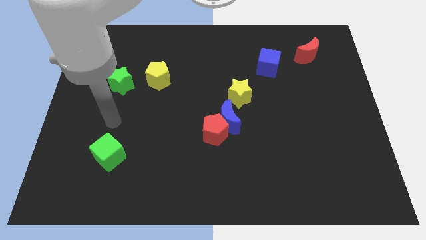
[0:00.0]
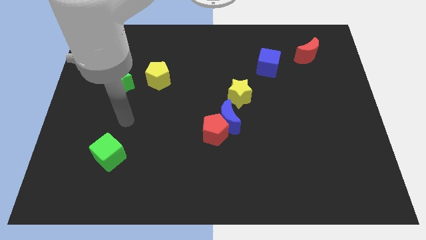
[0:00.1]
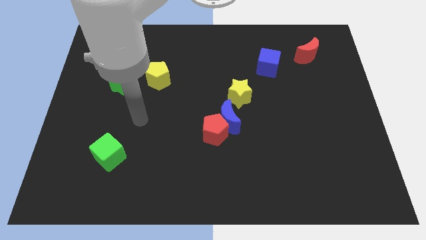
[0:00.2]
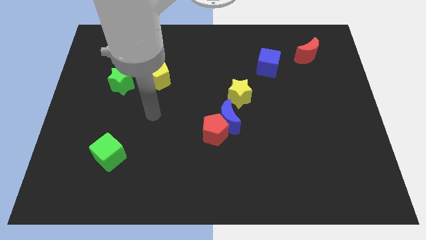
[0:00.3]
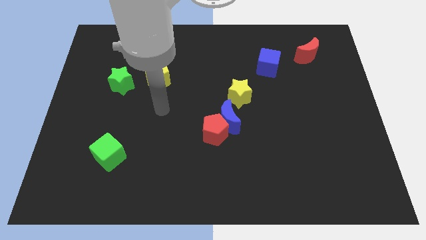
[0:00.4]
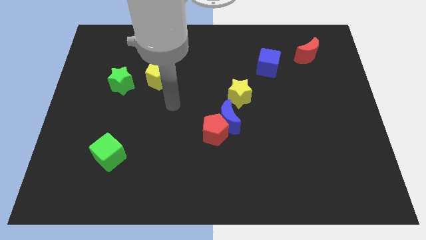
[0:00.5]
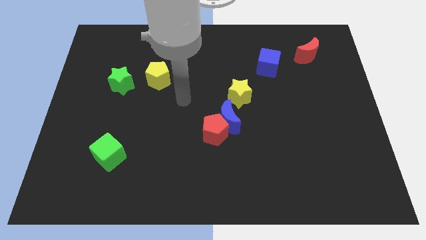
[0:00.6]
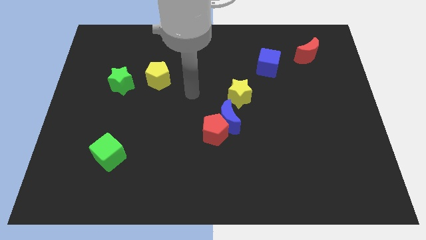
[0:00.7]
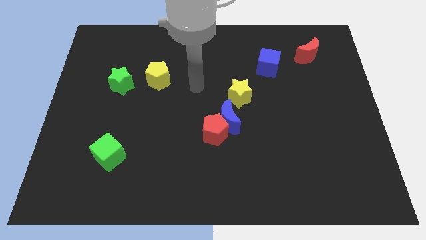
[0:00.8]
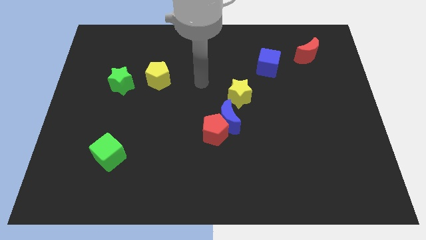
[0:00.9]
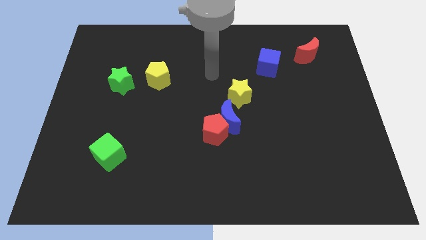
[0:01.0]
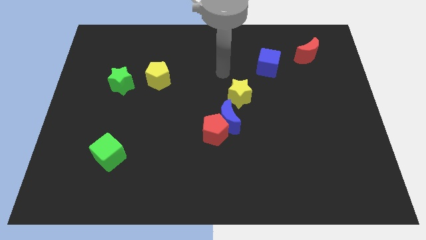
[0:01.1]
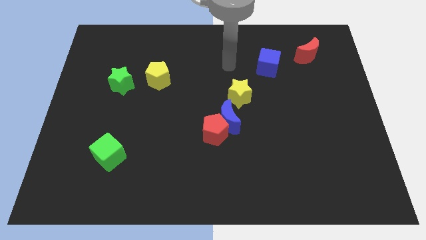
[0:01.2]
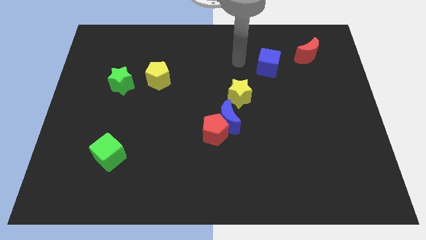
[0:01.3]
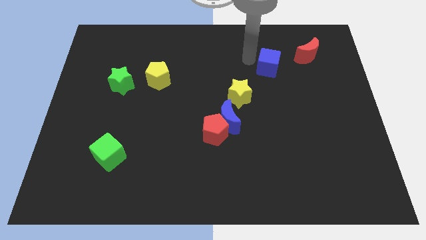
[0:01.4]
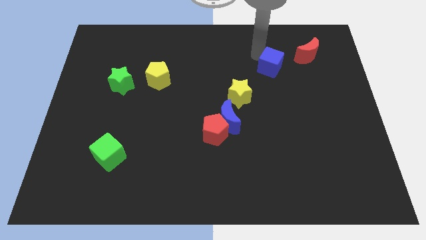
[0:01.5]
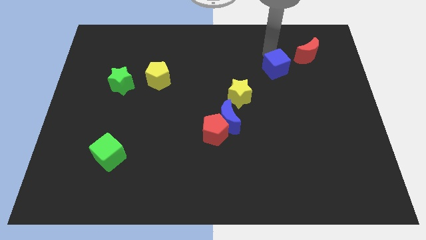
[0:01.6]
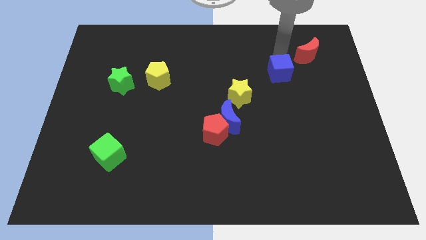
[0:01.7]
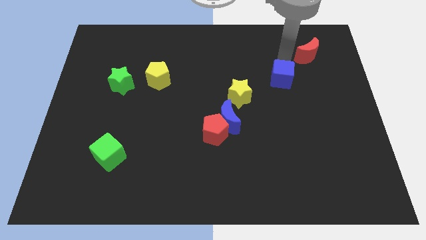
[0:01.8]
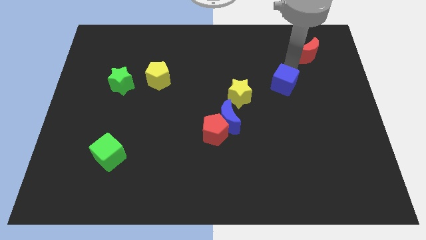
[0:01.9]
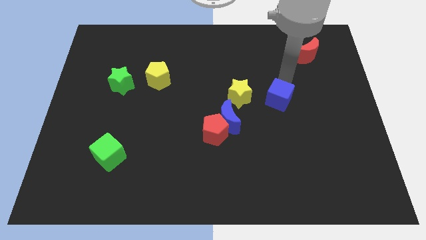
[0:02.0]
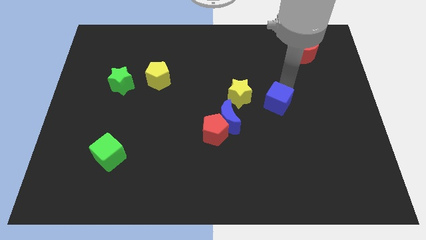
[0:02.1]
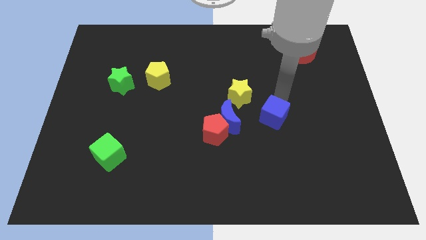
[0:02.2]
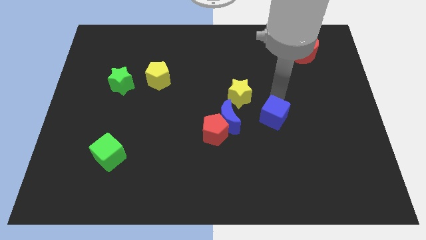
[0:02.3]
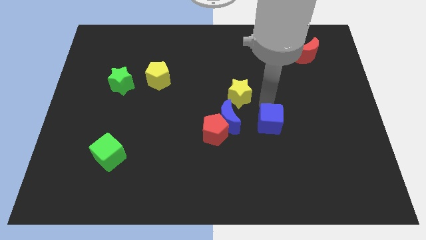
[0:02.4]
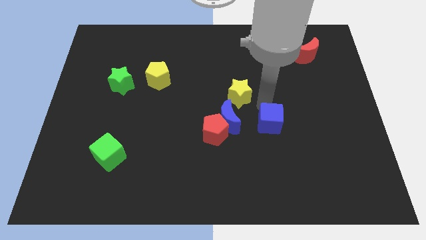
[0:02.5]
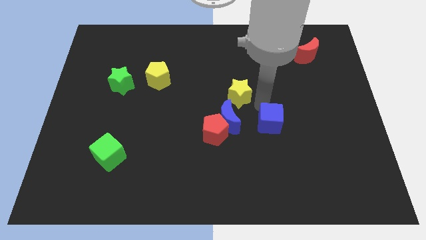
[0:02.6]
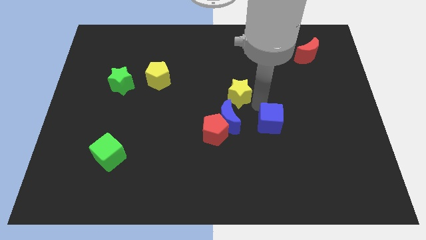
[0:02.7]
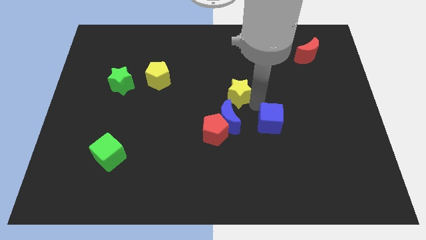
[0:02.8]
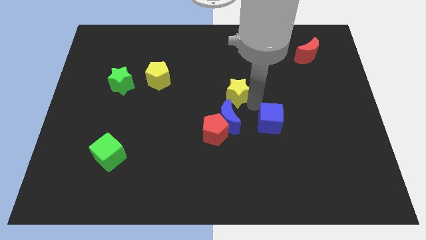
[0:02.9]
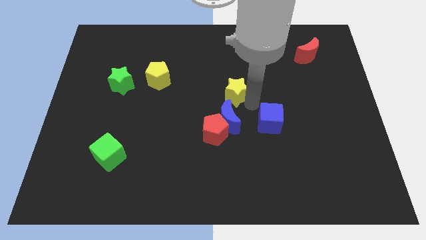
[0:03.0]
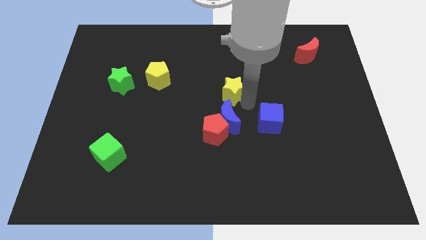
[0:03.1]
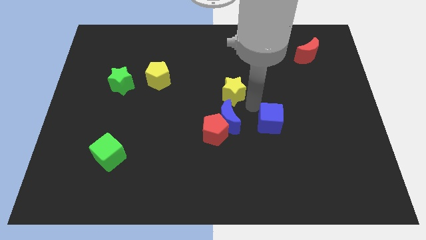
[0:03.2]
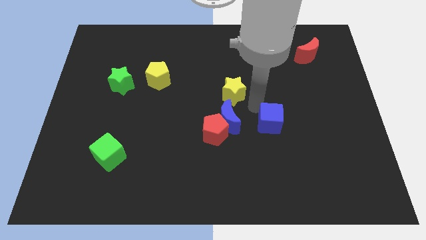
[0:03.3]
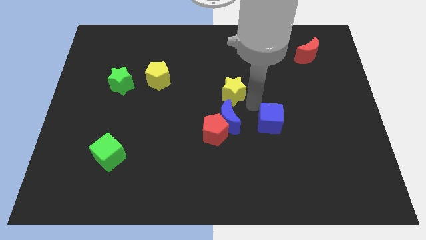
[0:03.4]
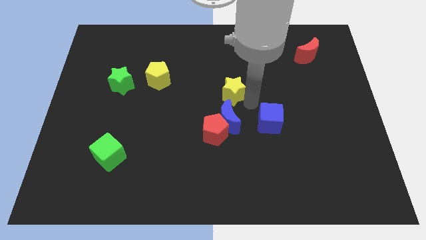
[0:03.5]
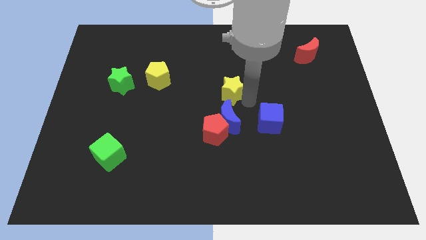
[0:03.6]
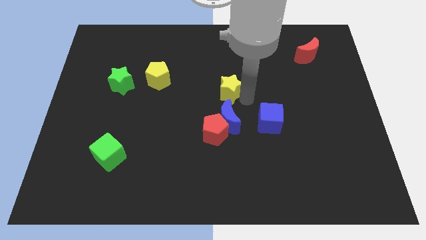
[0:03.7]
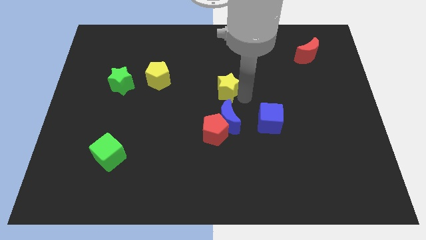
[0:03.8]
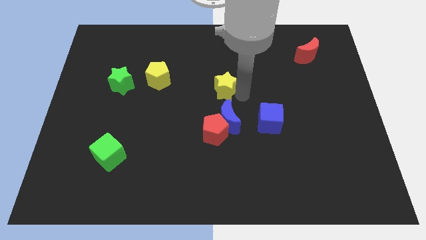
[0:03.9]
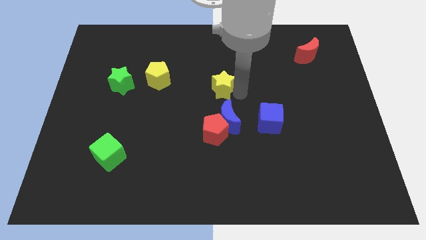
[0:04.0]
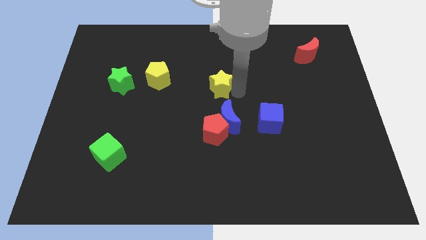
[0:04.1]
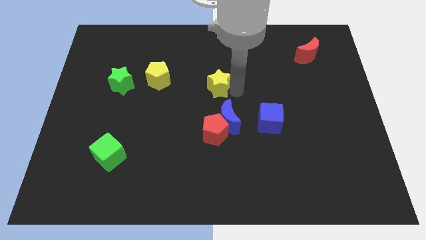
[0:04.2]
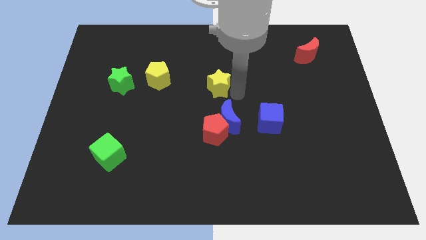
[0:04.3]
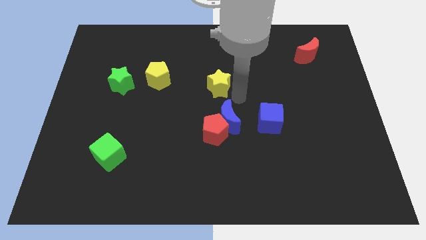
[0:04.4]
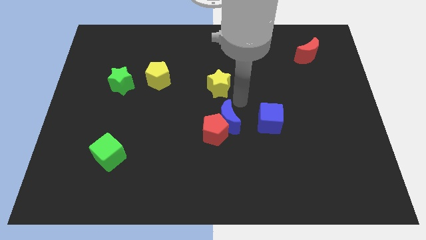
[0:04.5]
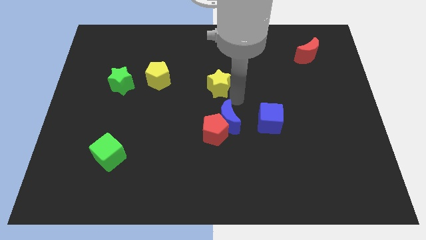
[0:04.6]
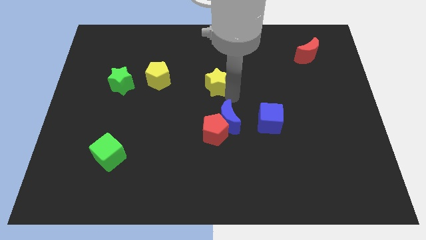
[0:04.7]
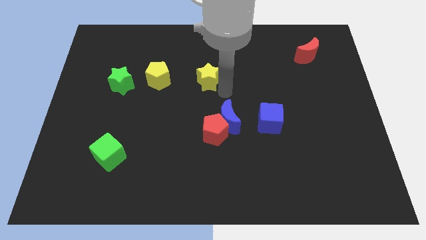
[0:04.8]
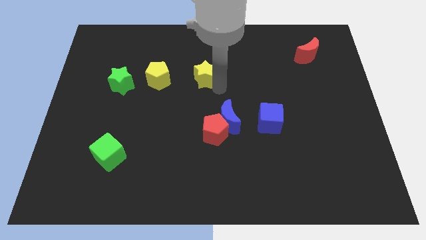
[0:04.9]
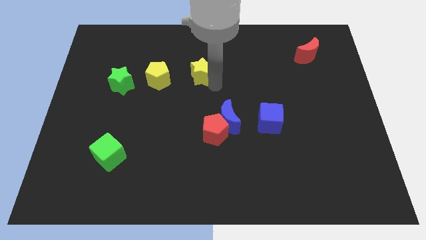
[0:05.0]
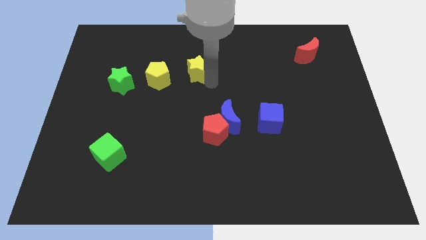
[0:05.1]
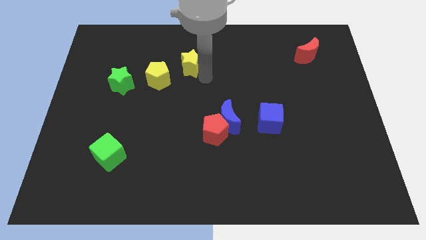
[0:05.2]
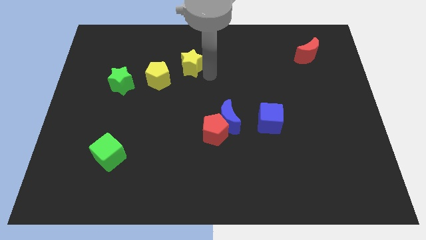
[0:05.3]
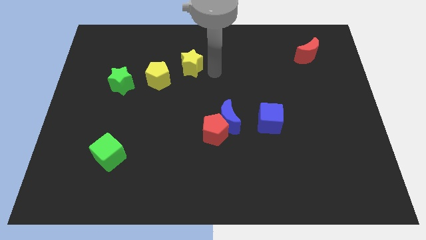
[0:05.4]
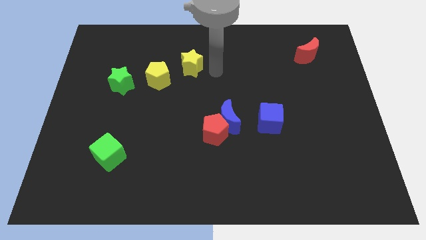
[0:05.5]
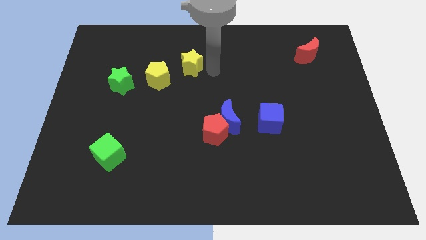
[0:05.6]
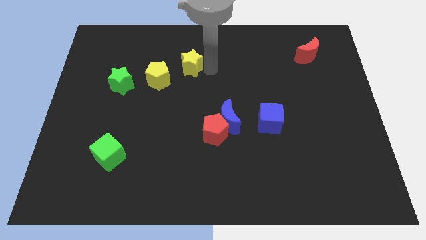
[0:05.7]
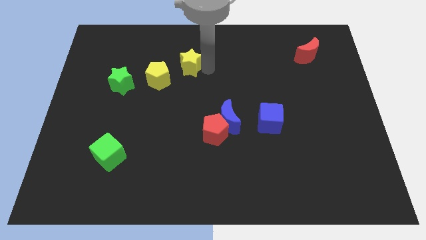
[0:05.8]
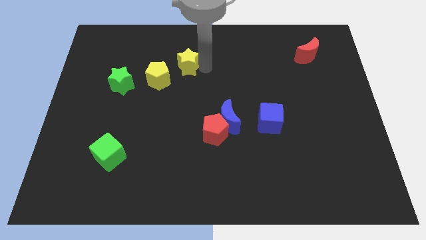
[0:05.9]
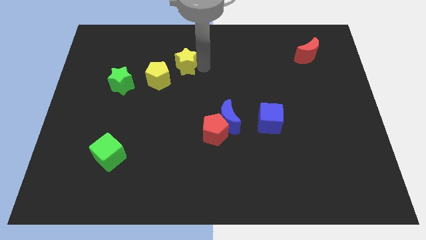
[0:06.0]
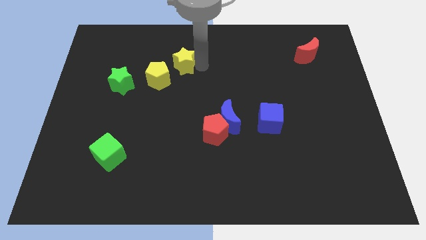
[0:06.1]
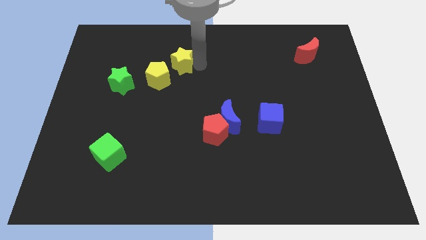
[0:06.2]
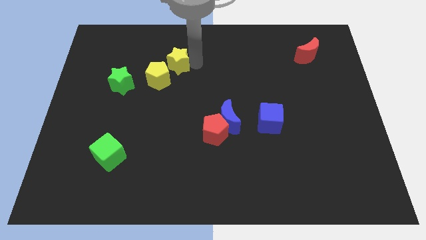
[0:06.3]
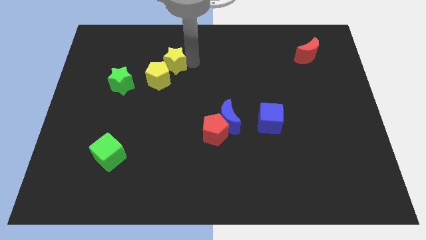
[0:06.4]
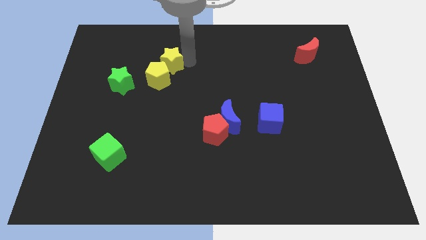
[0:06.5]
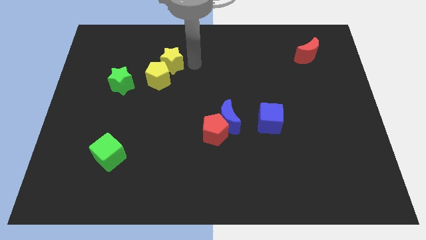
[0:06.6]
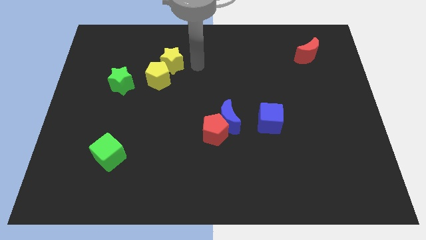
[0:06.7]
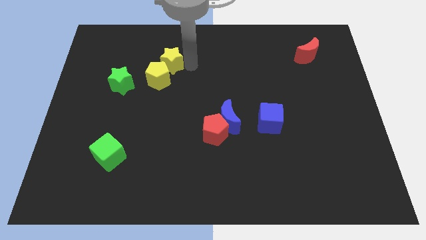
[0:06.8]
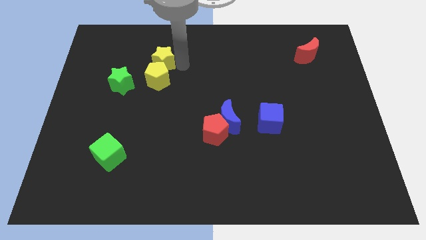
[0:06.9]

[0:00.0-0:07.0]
push the yellow star to the top left of the yellow pentagon
